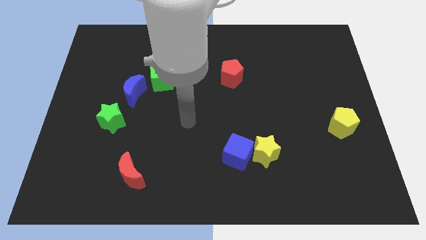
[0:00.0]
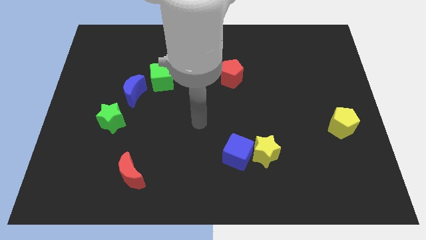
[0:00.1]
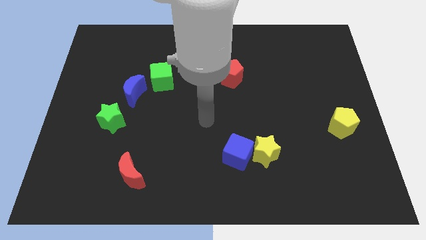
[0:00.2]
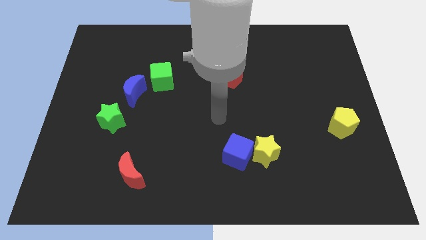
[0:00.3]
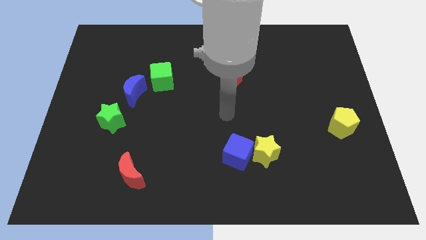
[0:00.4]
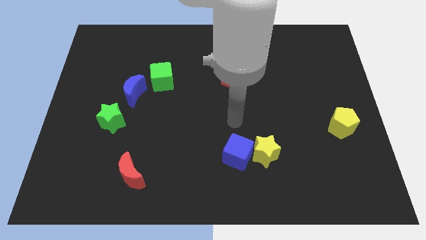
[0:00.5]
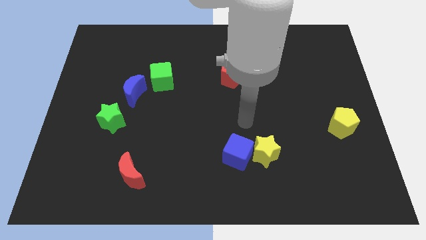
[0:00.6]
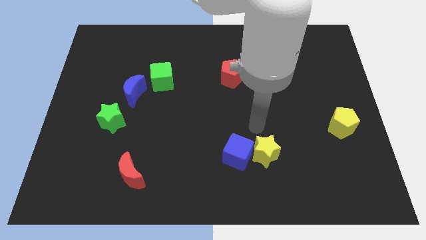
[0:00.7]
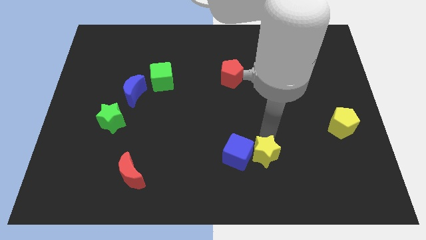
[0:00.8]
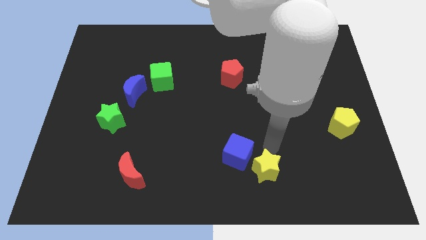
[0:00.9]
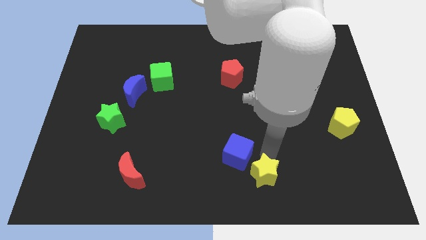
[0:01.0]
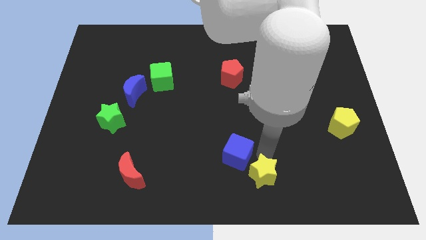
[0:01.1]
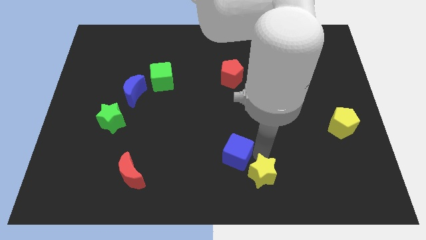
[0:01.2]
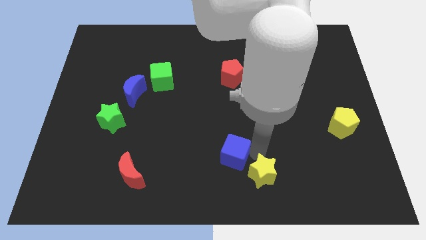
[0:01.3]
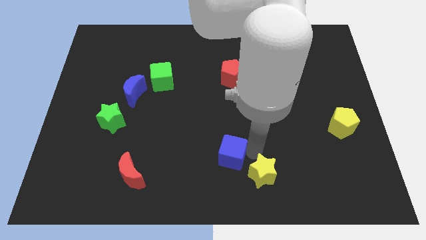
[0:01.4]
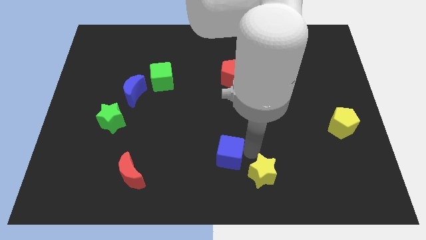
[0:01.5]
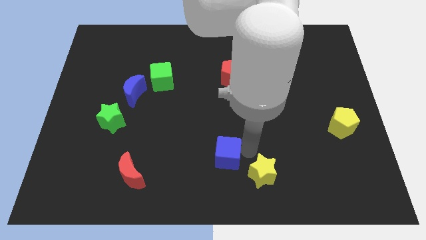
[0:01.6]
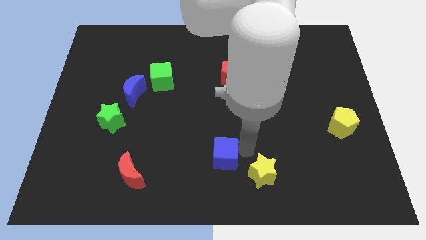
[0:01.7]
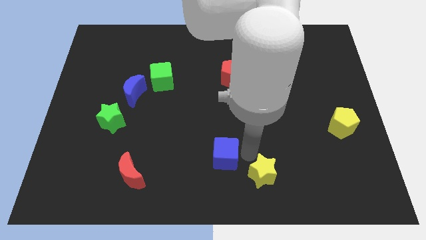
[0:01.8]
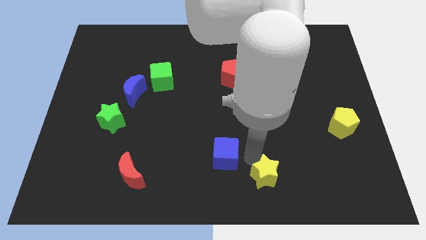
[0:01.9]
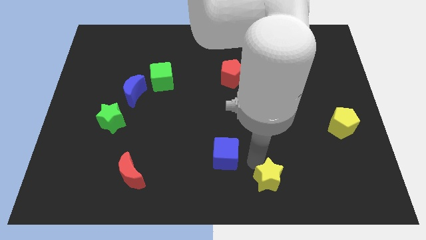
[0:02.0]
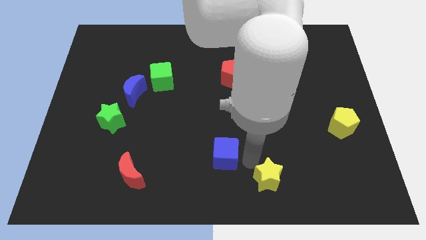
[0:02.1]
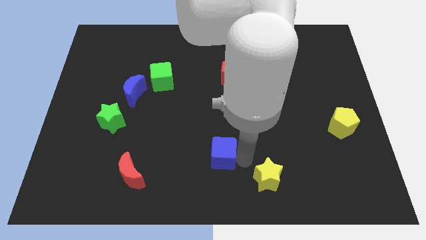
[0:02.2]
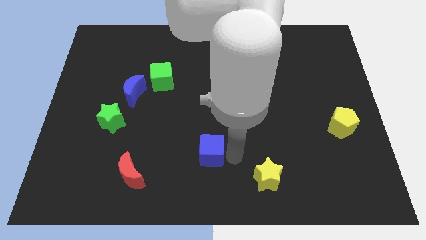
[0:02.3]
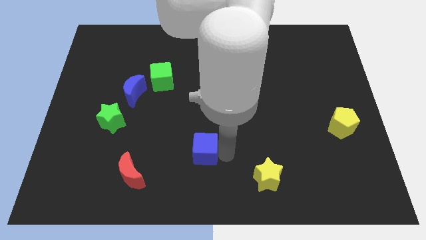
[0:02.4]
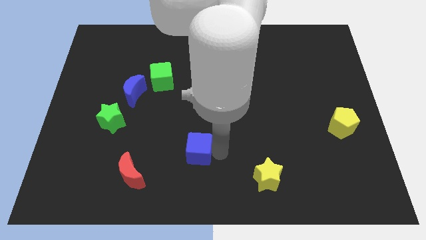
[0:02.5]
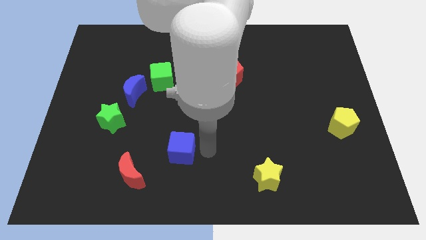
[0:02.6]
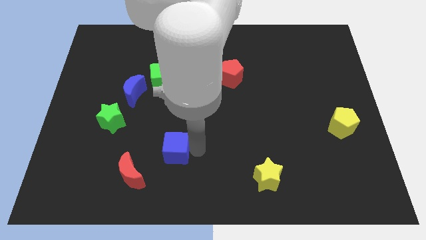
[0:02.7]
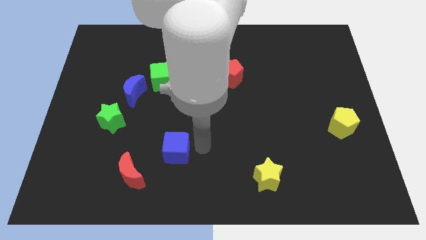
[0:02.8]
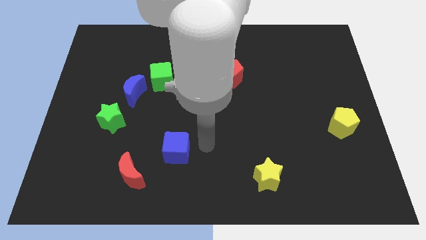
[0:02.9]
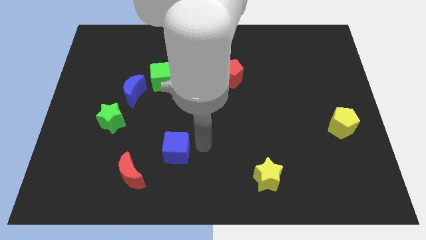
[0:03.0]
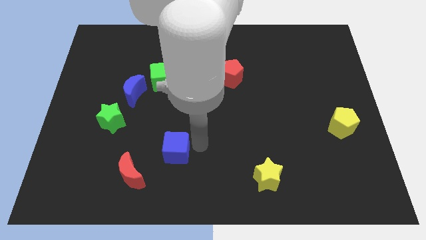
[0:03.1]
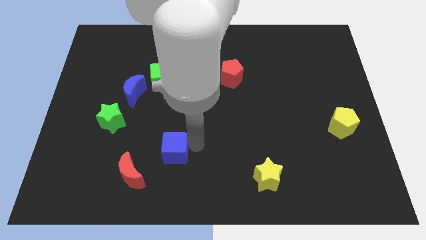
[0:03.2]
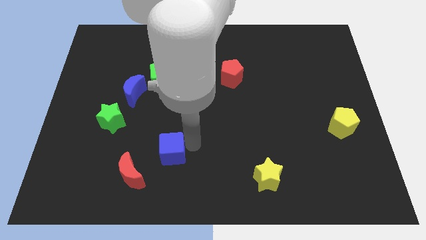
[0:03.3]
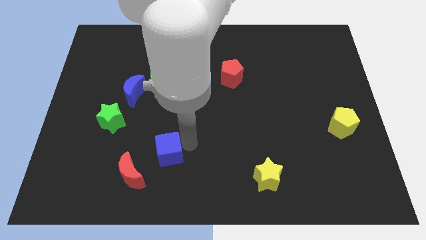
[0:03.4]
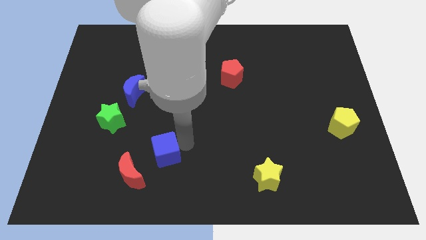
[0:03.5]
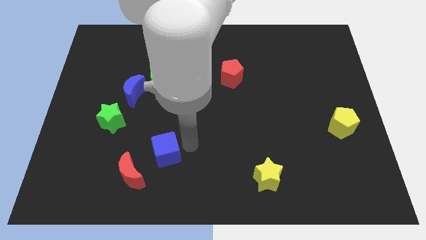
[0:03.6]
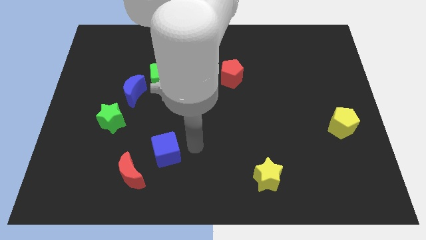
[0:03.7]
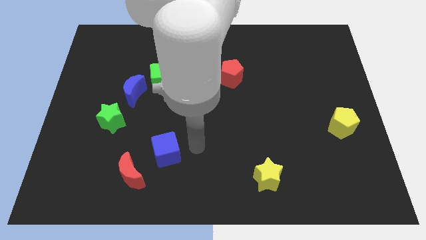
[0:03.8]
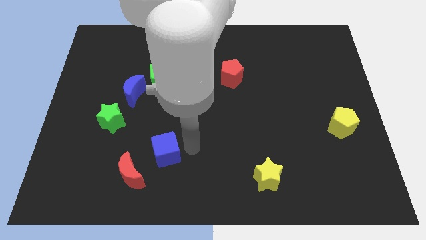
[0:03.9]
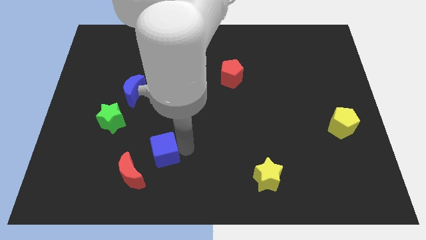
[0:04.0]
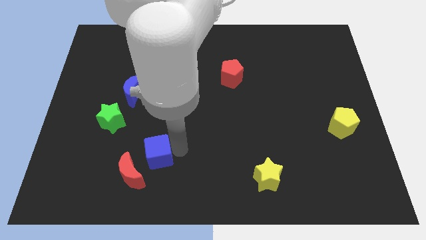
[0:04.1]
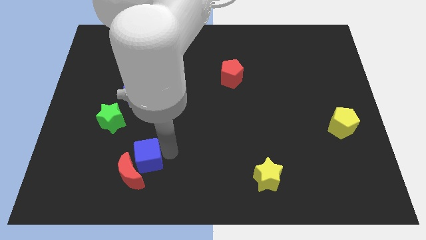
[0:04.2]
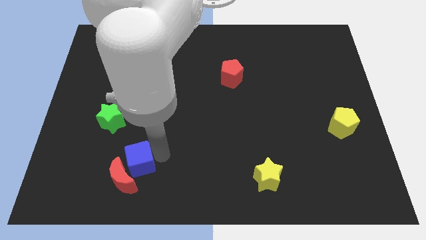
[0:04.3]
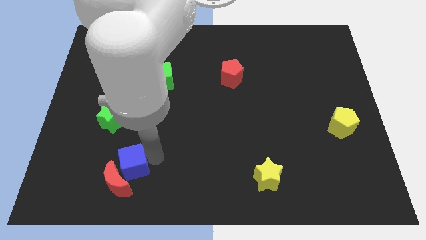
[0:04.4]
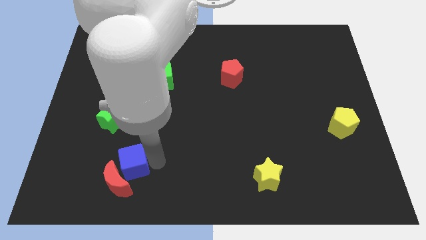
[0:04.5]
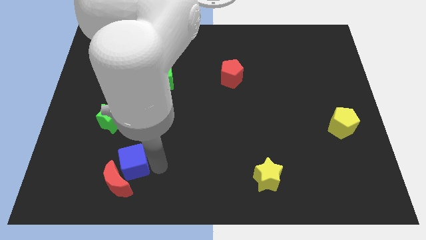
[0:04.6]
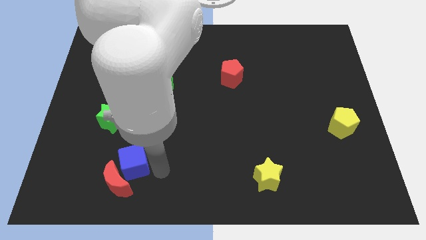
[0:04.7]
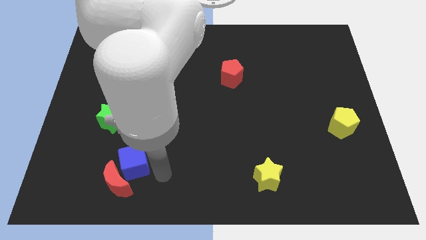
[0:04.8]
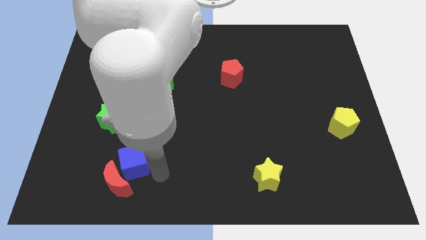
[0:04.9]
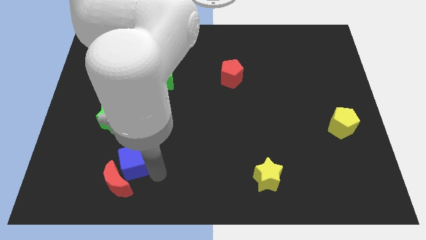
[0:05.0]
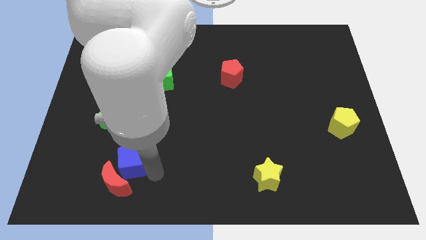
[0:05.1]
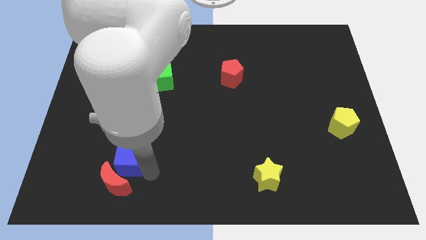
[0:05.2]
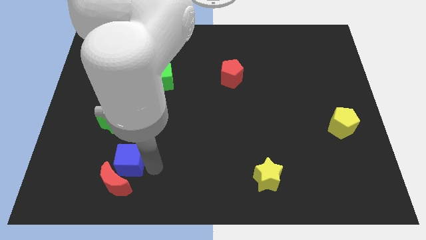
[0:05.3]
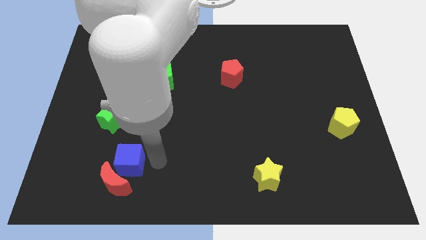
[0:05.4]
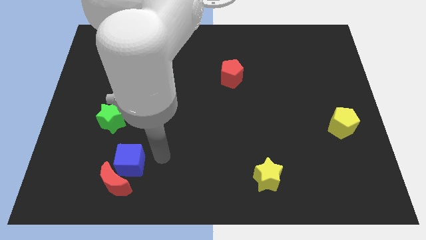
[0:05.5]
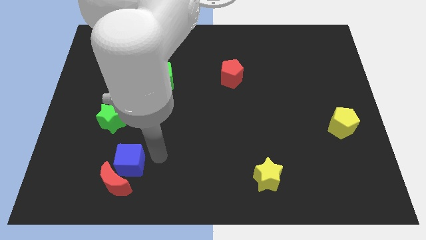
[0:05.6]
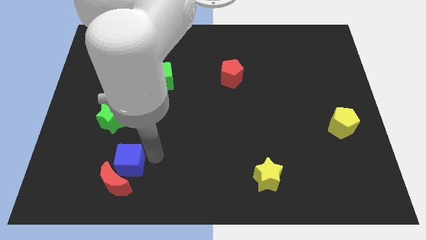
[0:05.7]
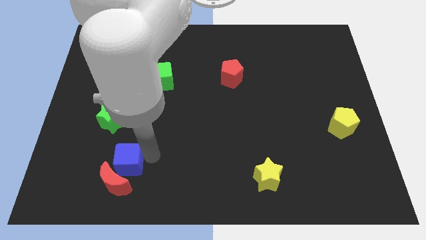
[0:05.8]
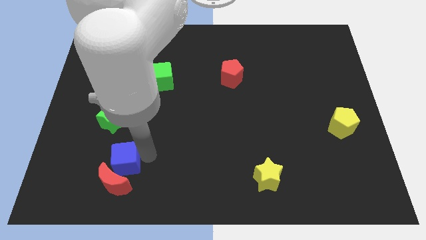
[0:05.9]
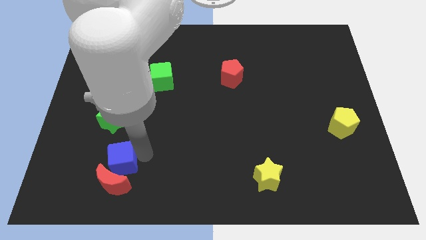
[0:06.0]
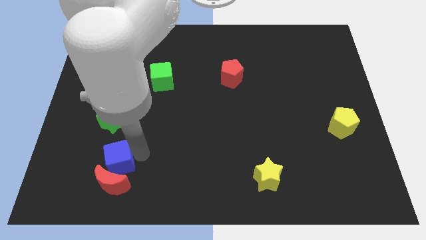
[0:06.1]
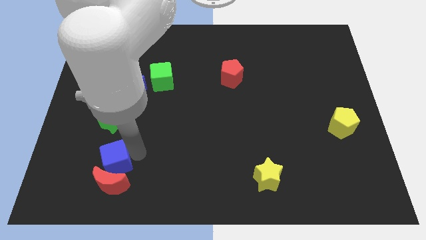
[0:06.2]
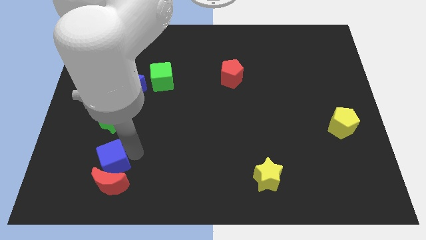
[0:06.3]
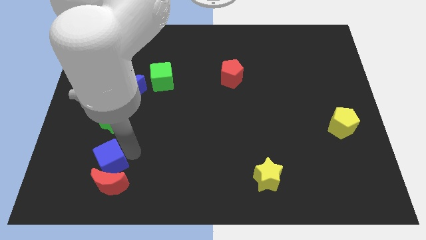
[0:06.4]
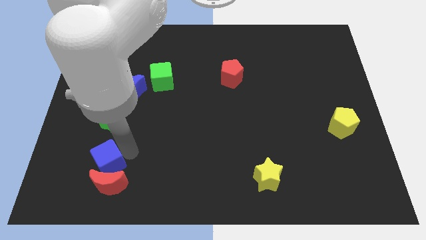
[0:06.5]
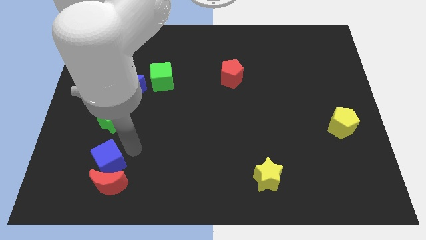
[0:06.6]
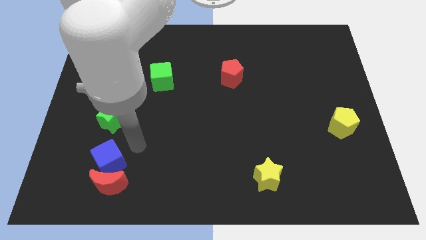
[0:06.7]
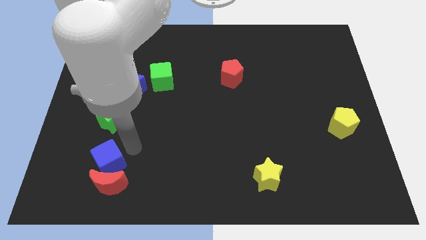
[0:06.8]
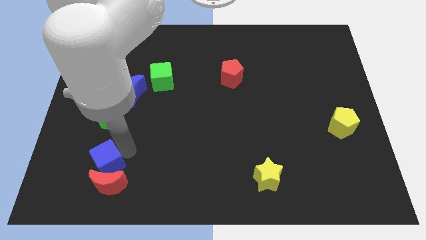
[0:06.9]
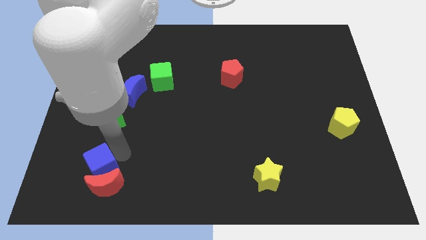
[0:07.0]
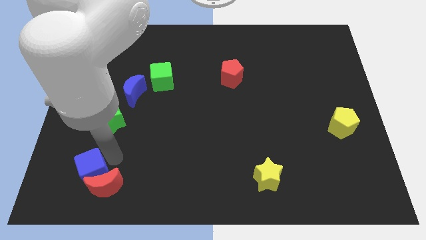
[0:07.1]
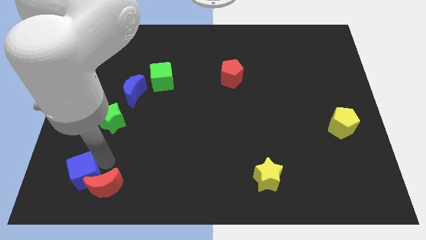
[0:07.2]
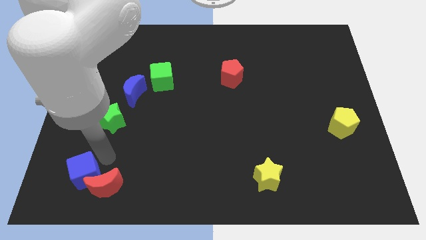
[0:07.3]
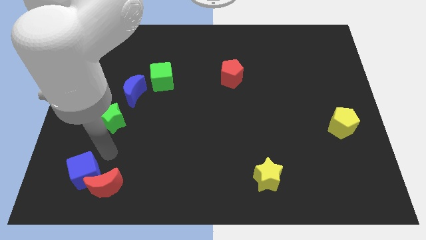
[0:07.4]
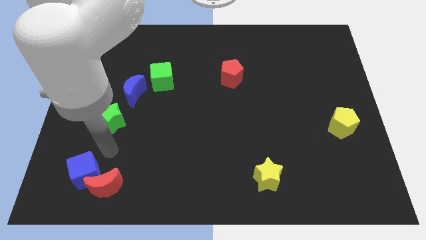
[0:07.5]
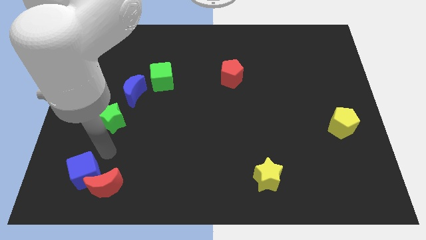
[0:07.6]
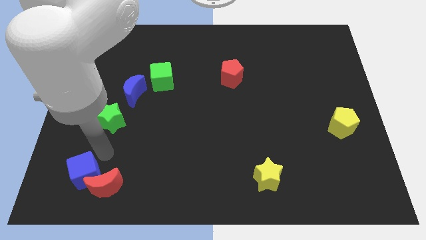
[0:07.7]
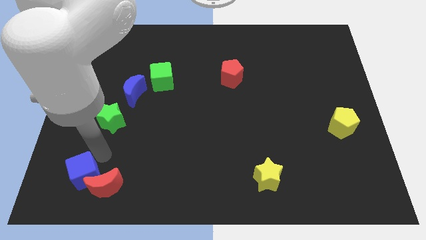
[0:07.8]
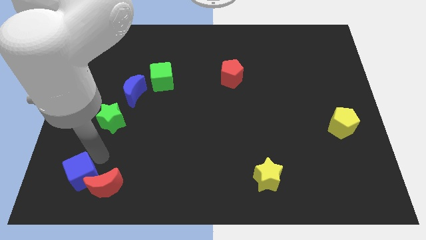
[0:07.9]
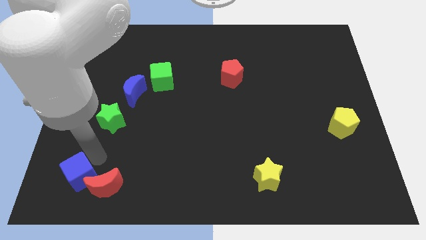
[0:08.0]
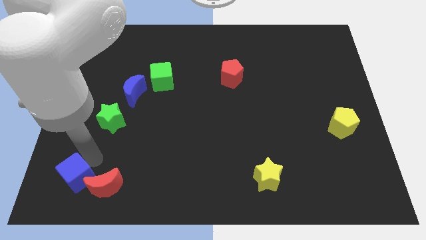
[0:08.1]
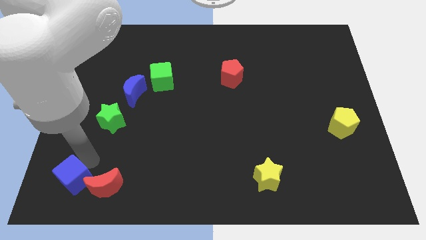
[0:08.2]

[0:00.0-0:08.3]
move the blue cube to the bottom left of the board
